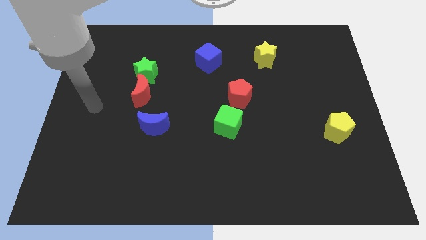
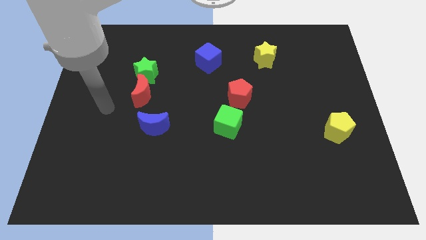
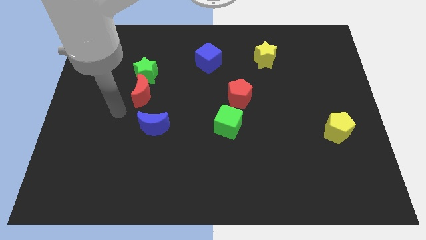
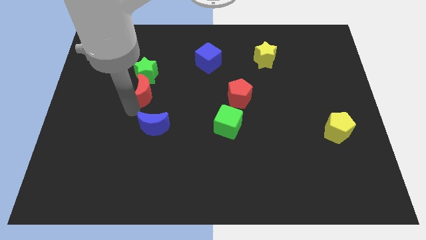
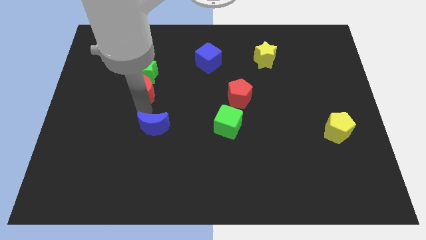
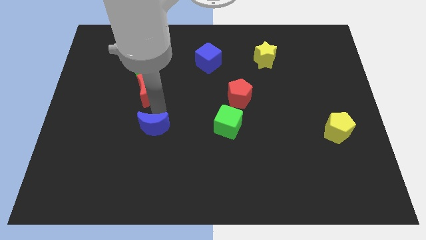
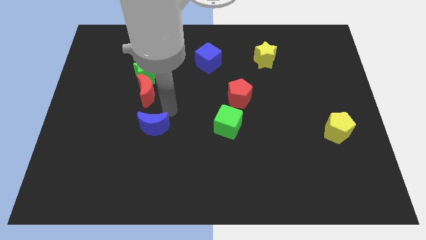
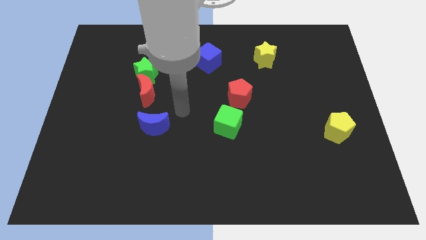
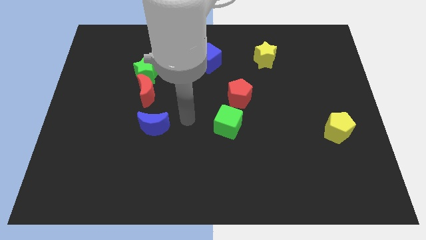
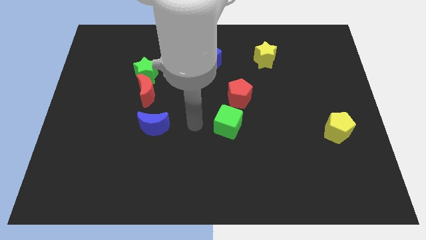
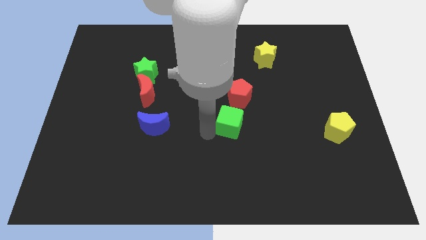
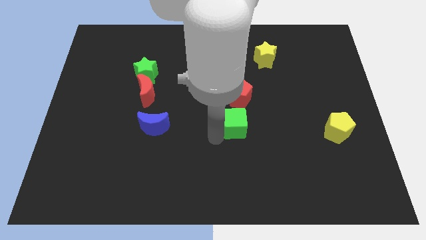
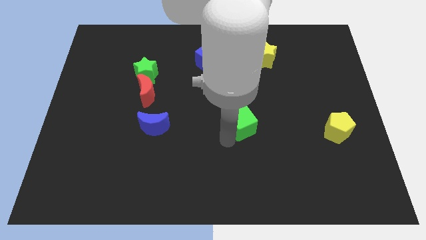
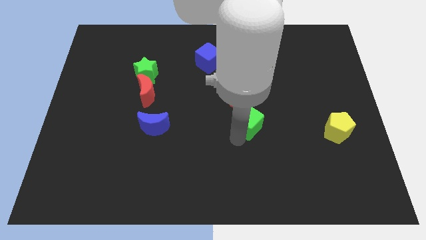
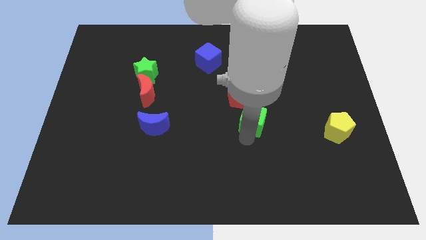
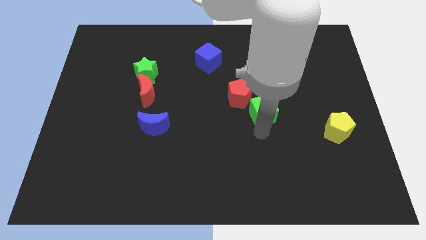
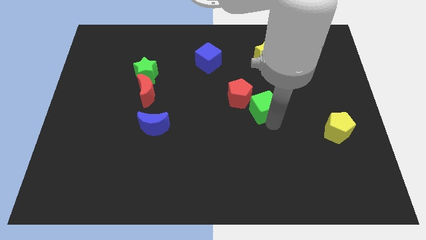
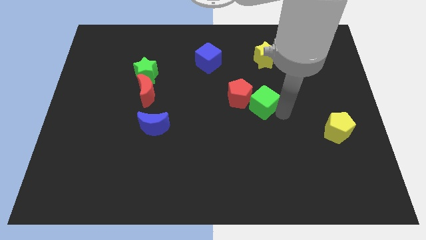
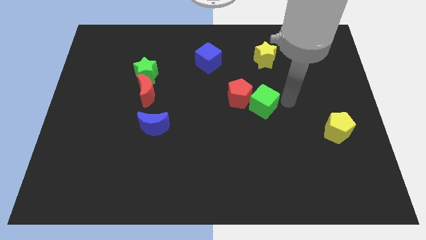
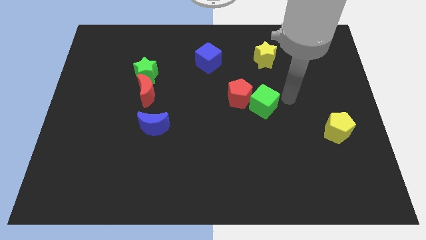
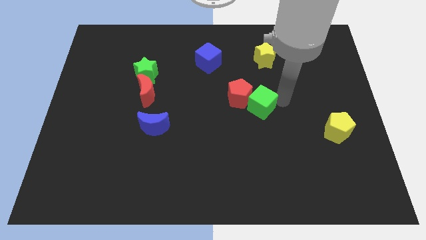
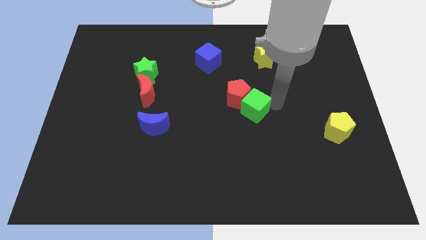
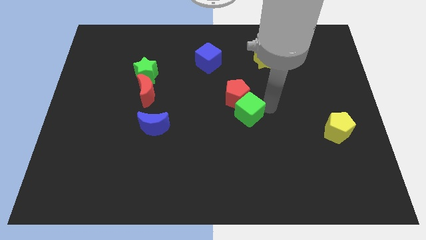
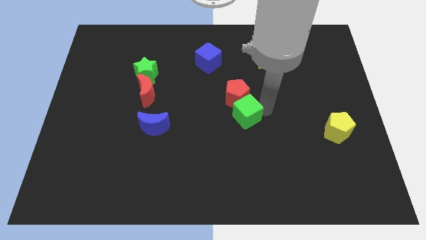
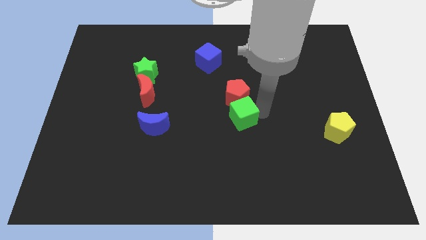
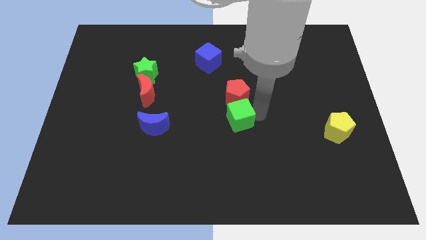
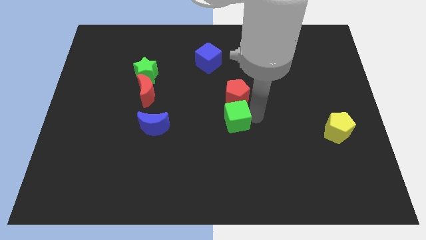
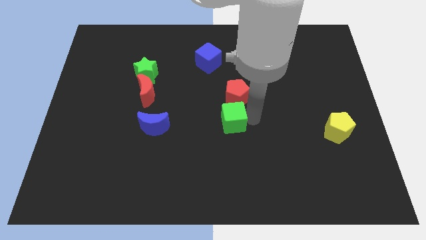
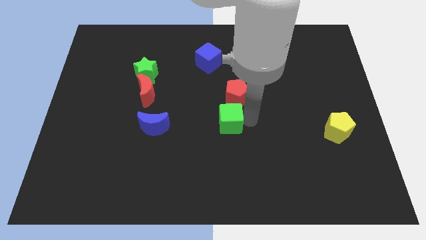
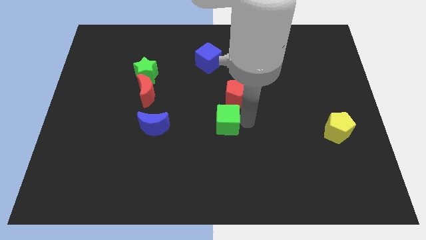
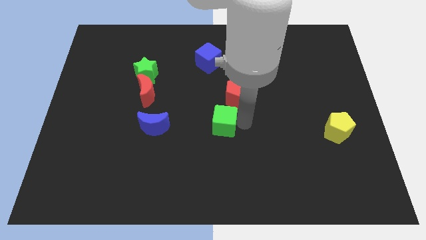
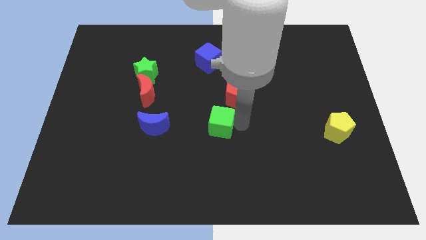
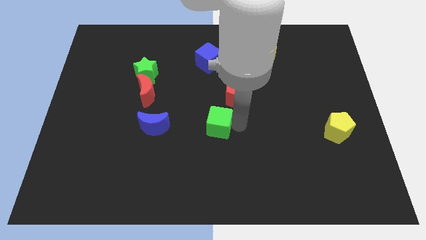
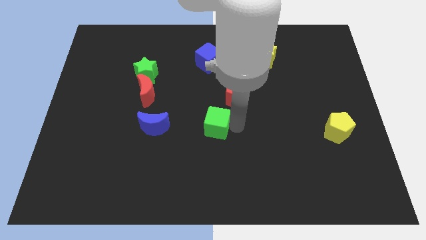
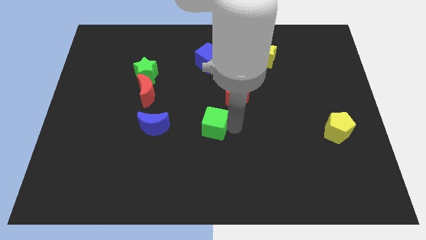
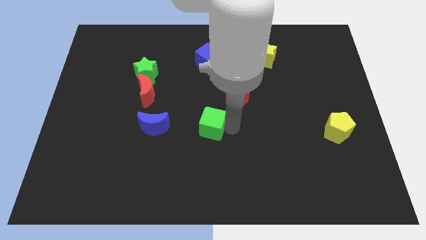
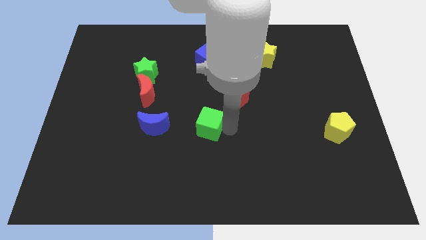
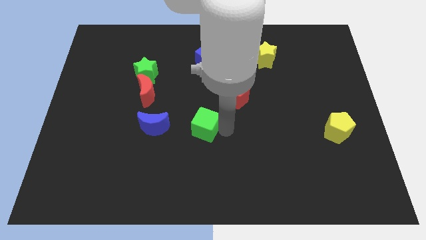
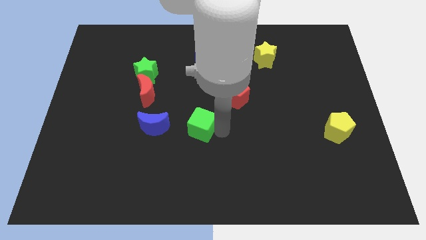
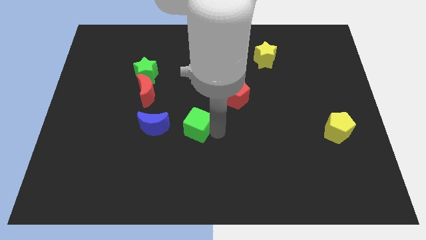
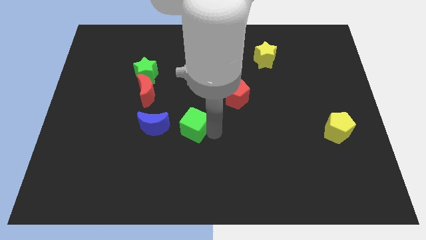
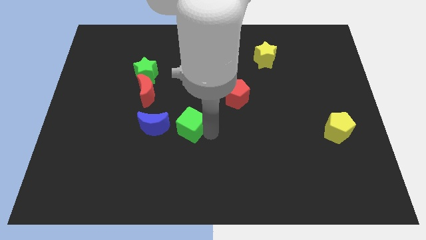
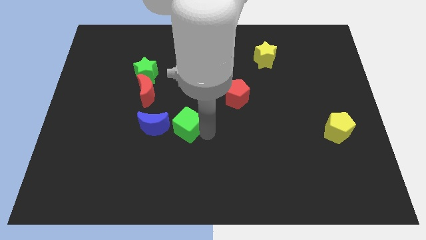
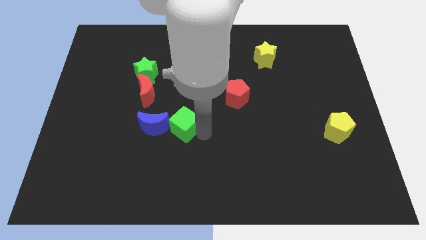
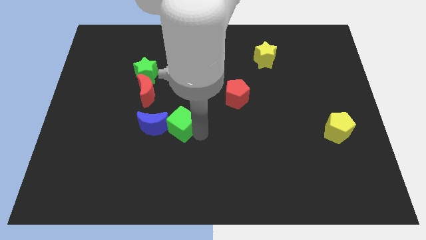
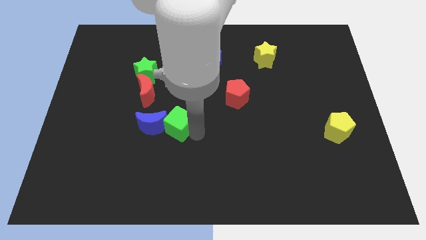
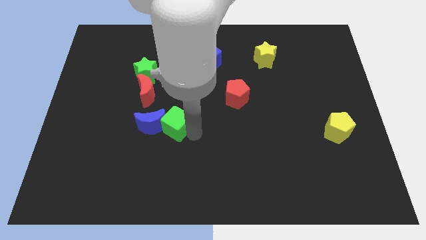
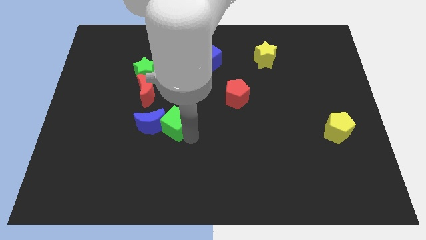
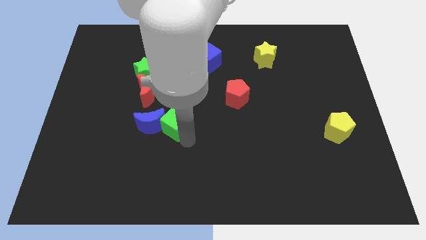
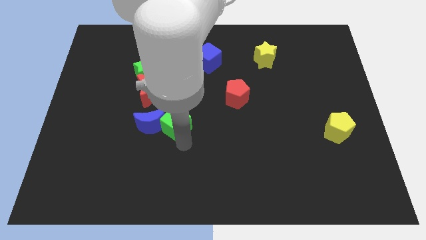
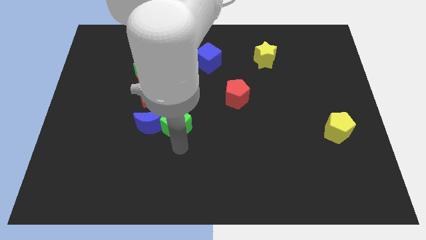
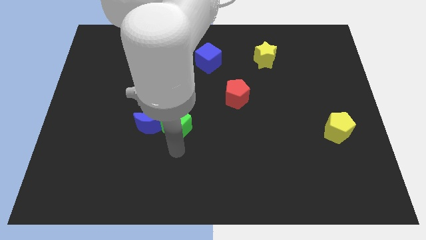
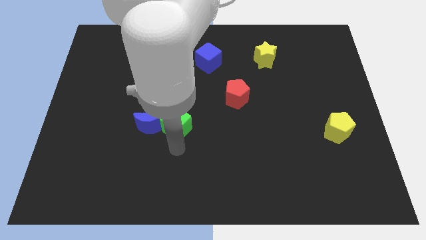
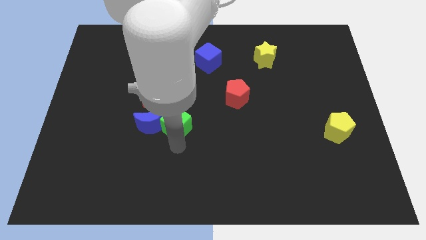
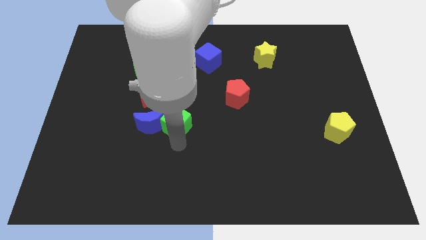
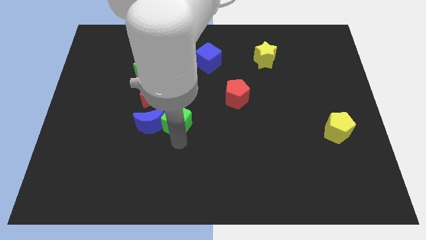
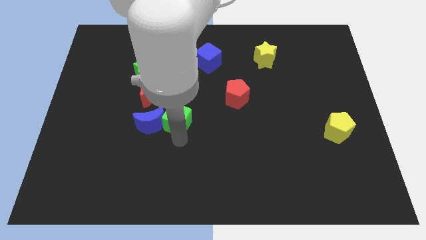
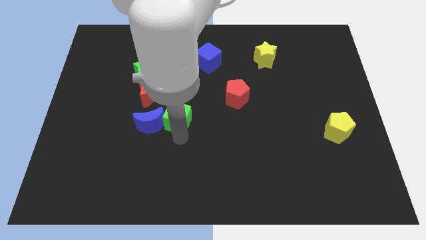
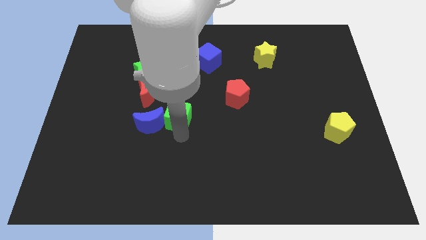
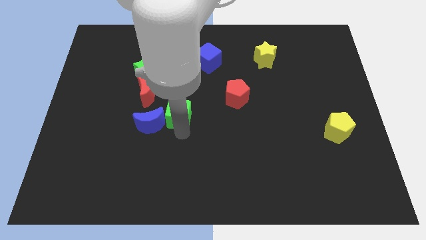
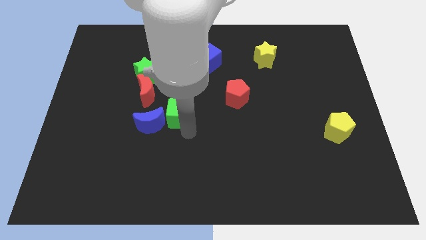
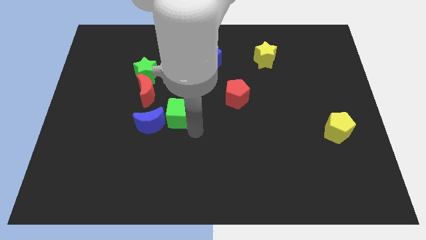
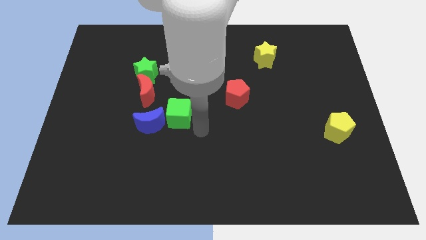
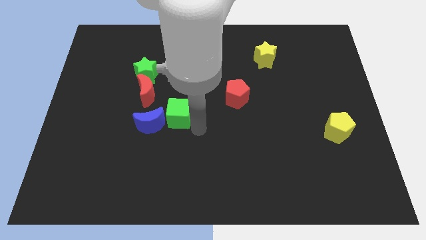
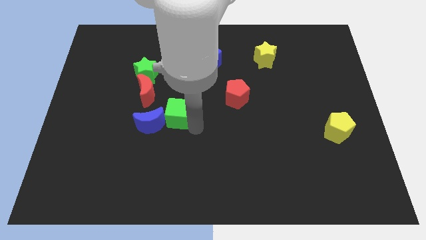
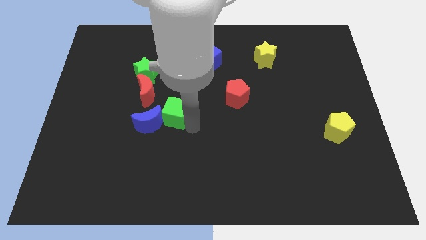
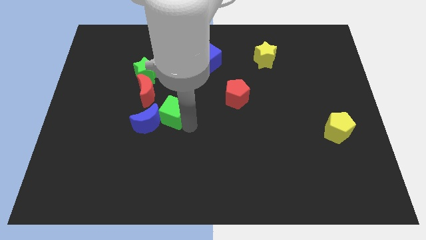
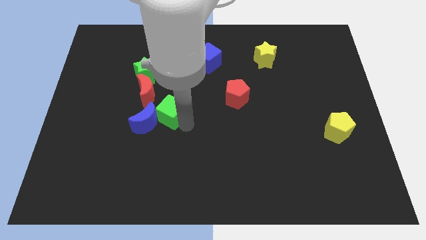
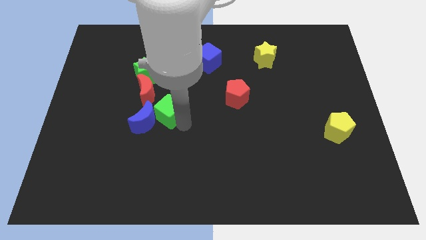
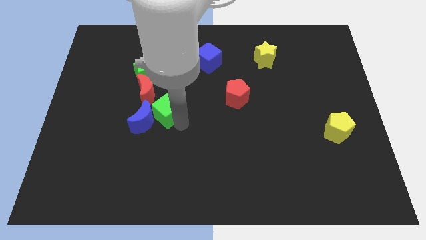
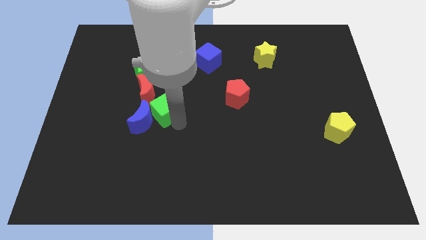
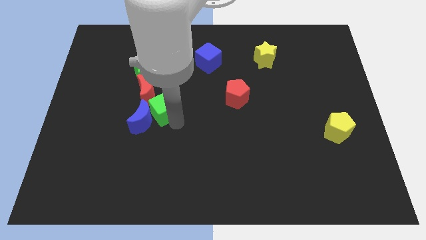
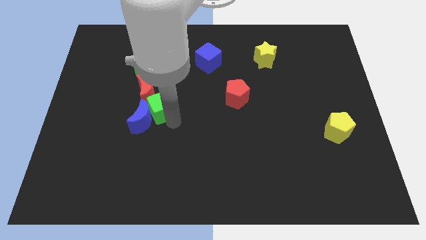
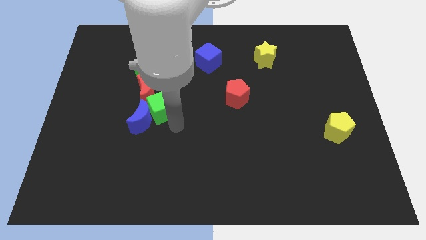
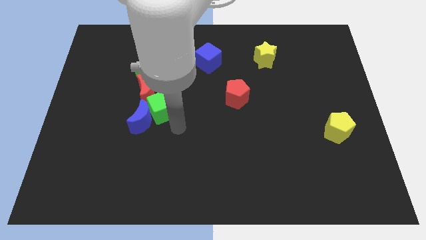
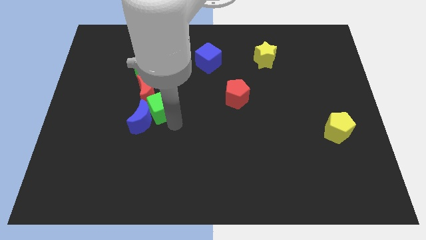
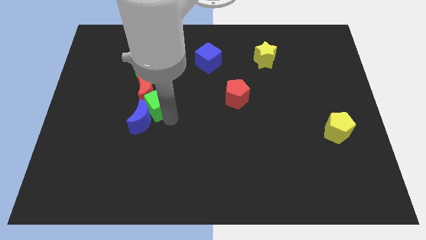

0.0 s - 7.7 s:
move the green cube next to the red moon
